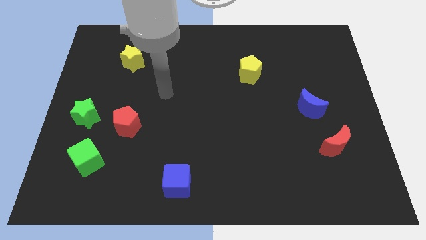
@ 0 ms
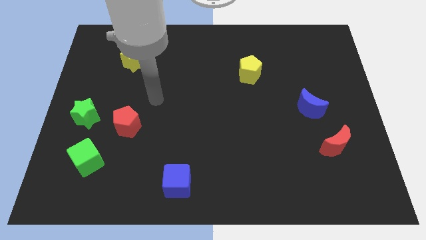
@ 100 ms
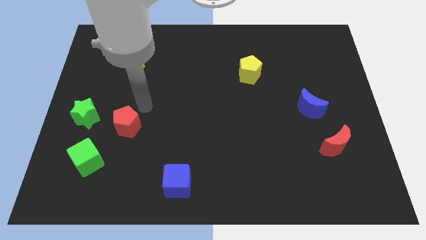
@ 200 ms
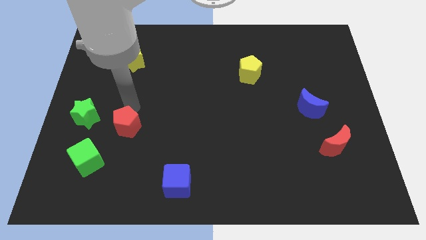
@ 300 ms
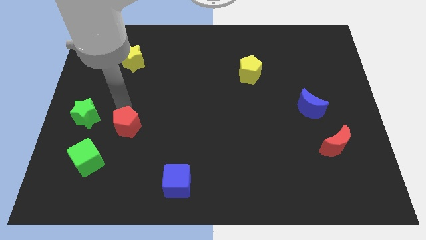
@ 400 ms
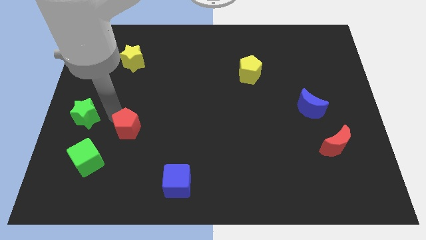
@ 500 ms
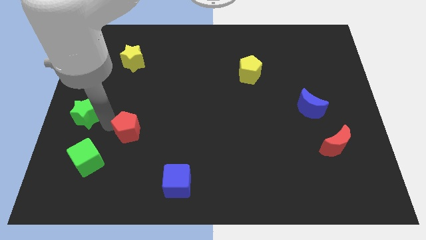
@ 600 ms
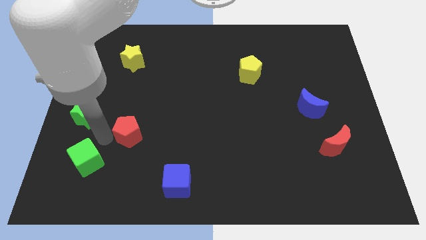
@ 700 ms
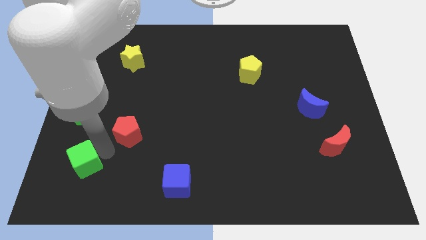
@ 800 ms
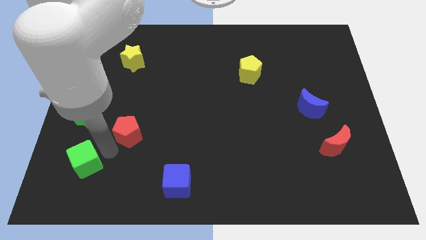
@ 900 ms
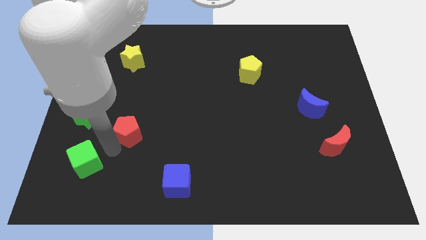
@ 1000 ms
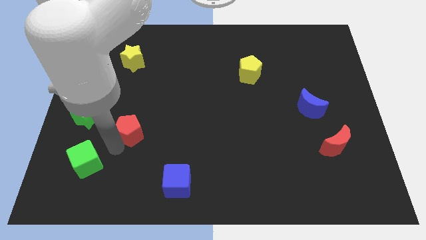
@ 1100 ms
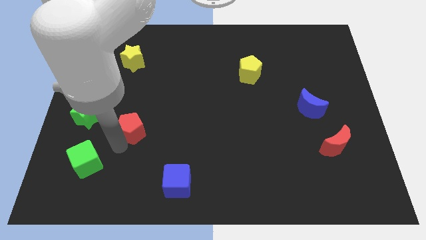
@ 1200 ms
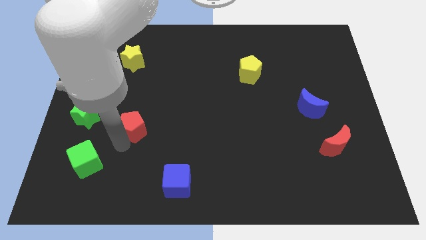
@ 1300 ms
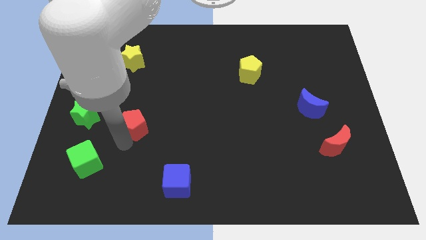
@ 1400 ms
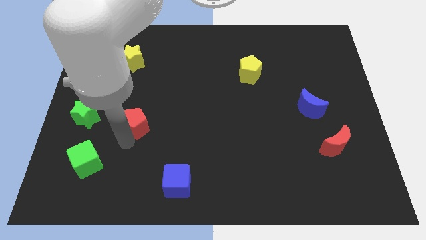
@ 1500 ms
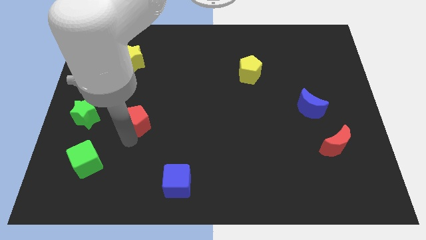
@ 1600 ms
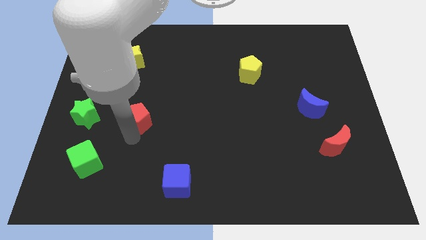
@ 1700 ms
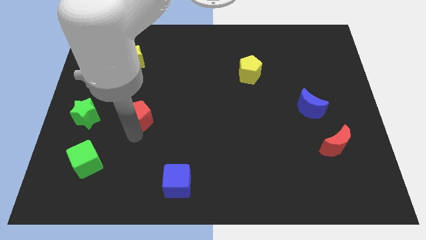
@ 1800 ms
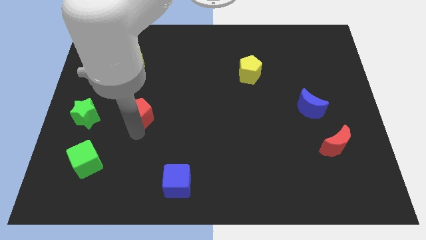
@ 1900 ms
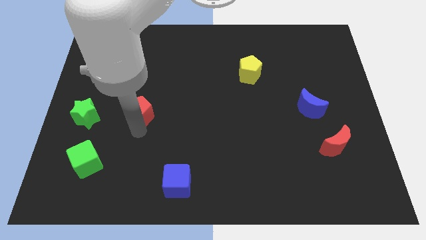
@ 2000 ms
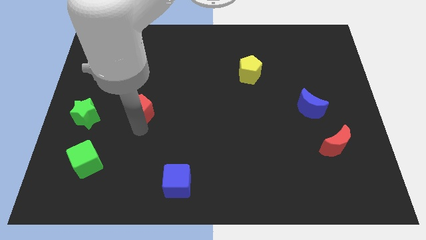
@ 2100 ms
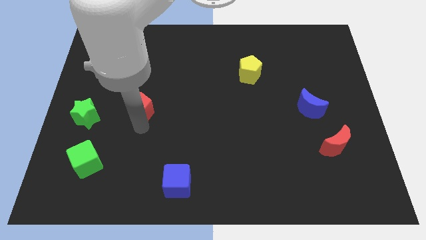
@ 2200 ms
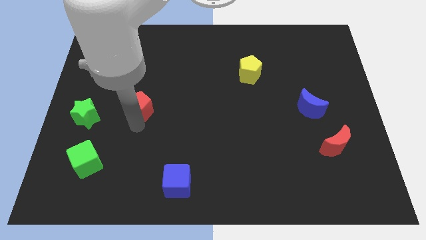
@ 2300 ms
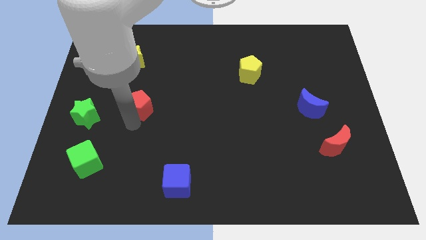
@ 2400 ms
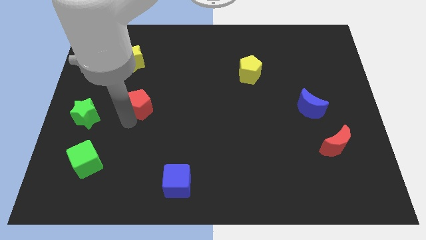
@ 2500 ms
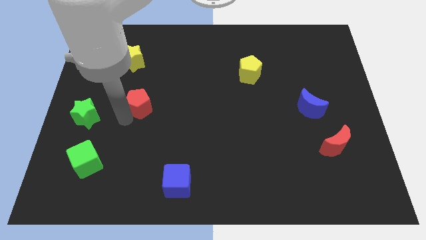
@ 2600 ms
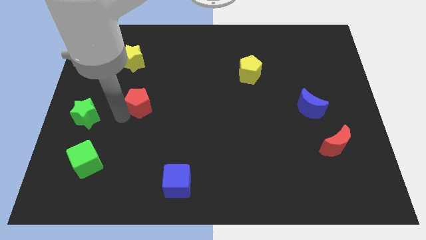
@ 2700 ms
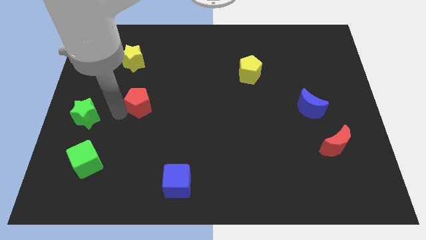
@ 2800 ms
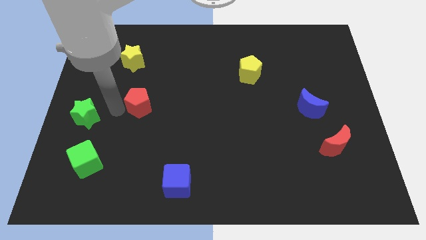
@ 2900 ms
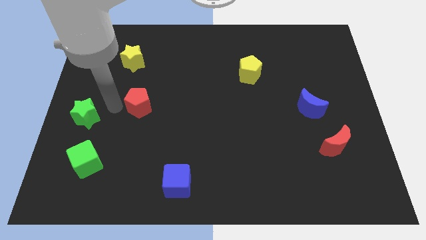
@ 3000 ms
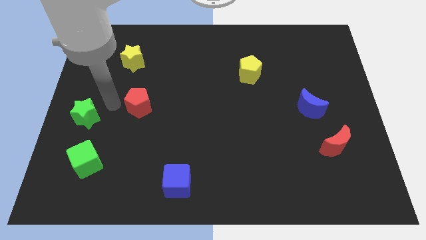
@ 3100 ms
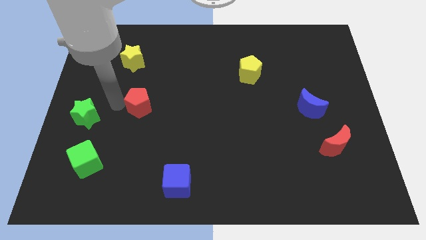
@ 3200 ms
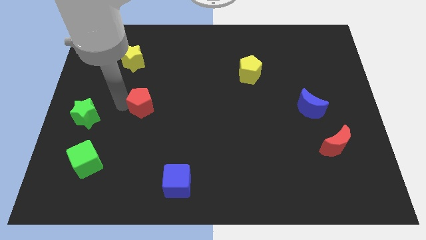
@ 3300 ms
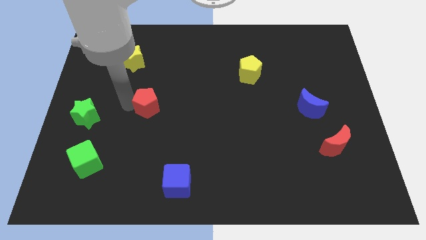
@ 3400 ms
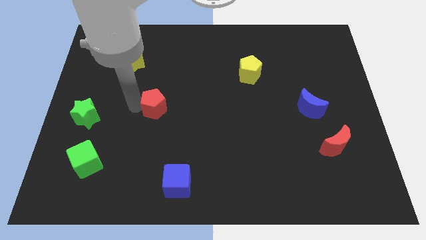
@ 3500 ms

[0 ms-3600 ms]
slightly slide the red pentagon upwards and to the right diagonally

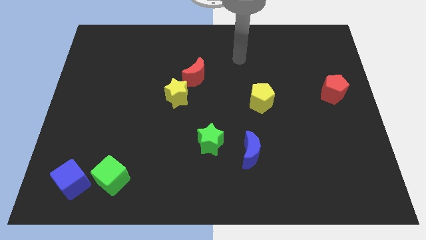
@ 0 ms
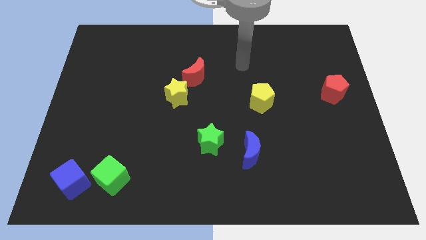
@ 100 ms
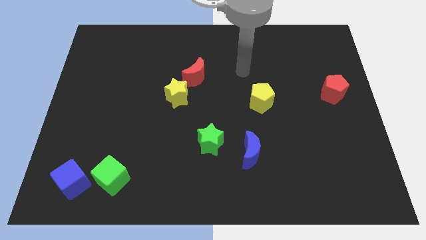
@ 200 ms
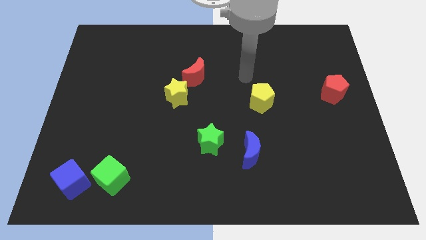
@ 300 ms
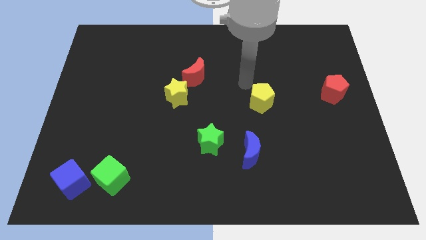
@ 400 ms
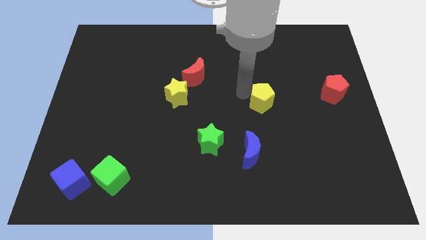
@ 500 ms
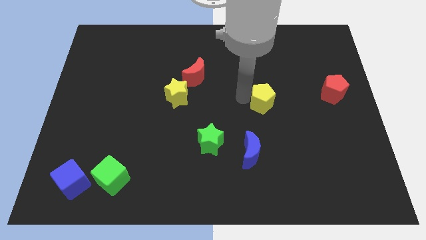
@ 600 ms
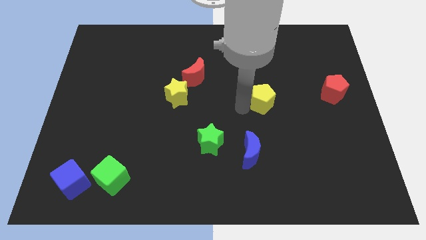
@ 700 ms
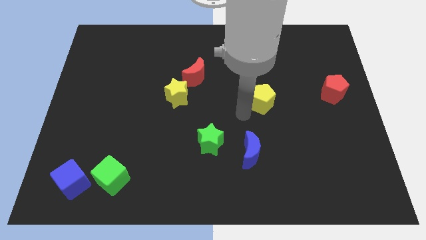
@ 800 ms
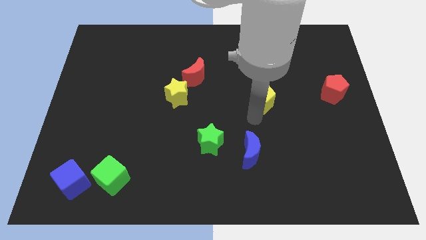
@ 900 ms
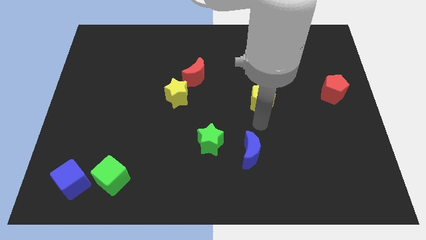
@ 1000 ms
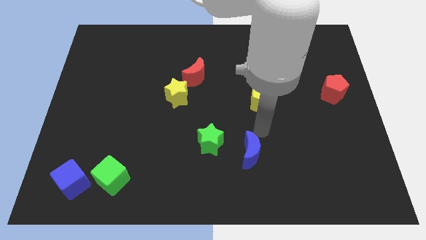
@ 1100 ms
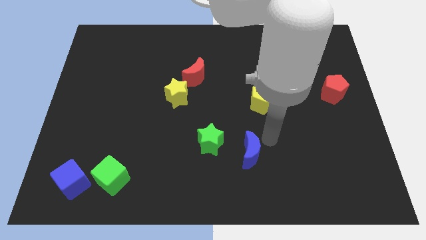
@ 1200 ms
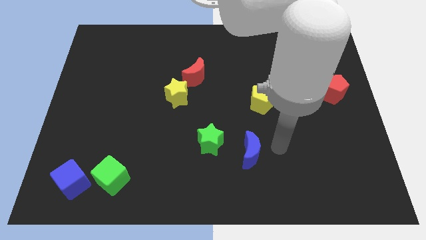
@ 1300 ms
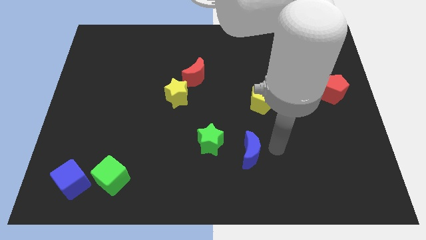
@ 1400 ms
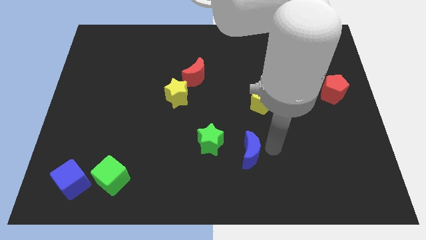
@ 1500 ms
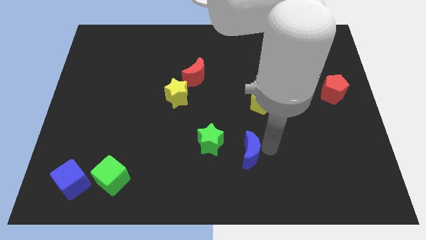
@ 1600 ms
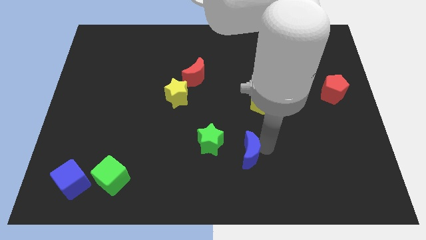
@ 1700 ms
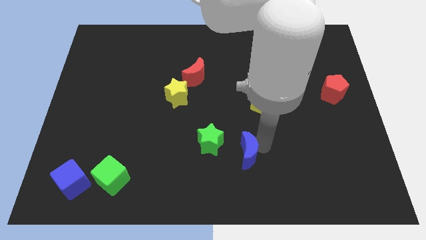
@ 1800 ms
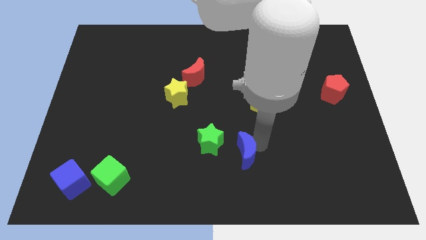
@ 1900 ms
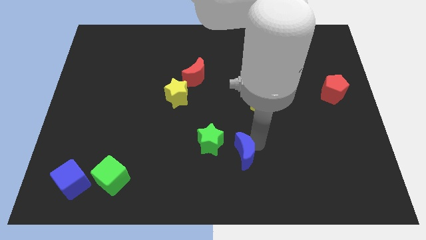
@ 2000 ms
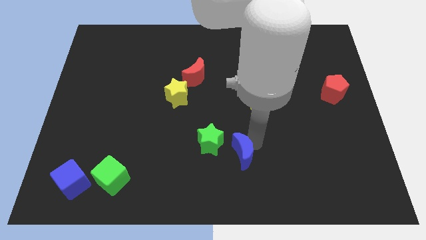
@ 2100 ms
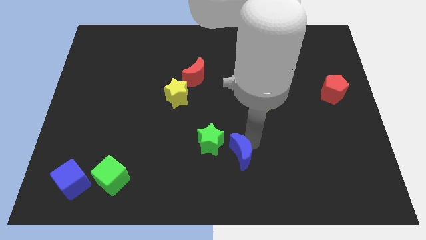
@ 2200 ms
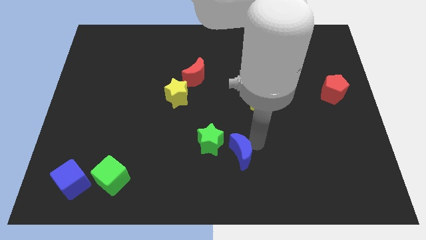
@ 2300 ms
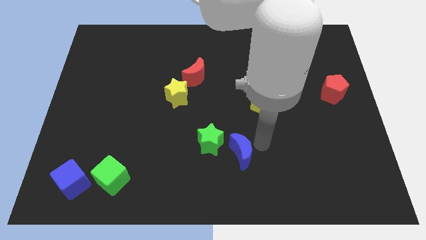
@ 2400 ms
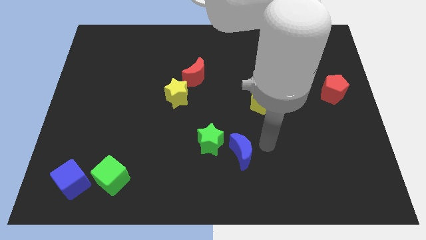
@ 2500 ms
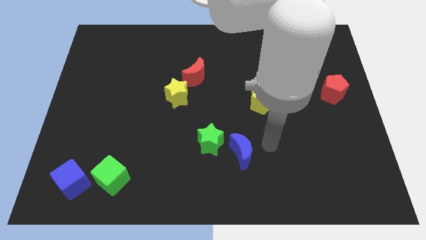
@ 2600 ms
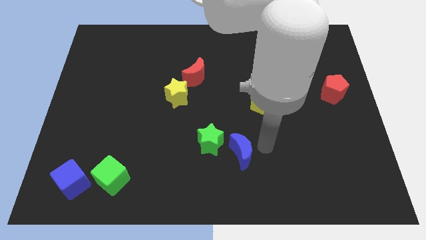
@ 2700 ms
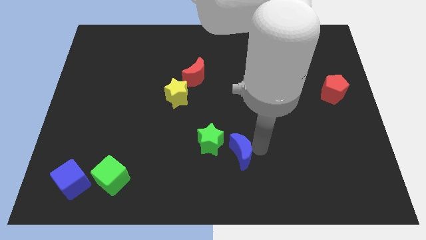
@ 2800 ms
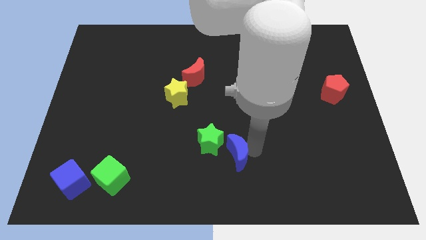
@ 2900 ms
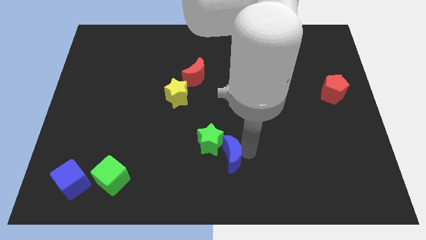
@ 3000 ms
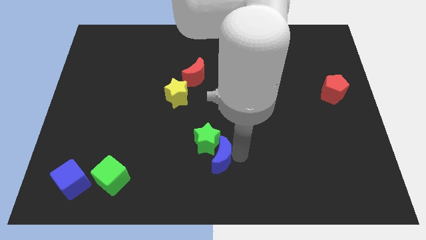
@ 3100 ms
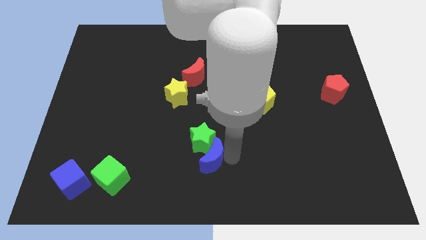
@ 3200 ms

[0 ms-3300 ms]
move the blue moon somewhat to the left

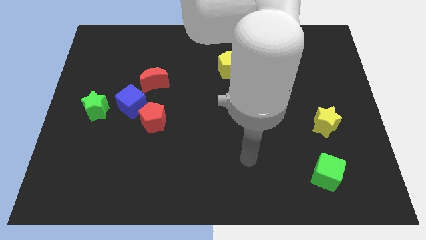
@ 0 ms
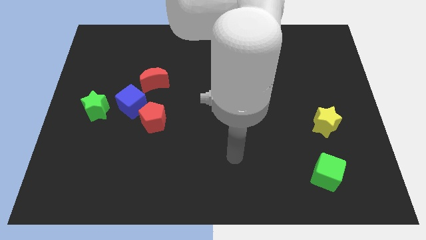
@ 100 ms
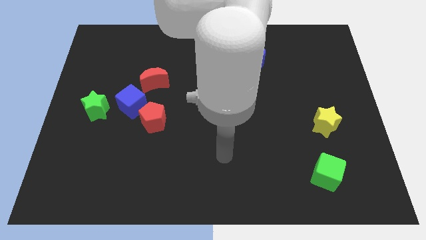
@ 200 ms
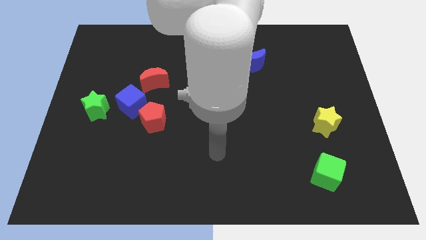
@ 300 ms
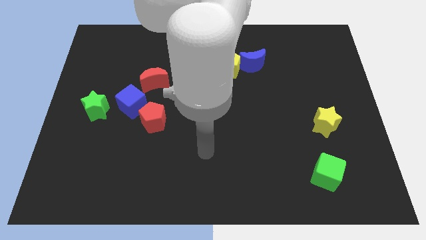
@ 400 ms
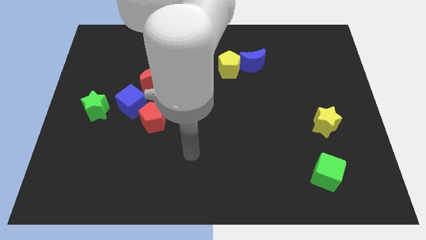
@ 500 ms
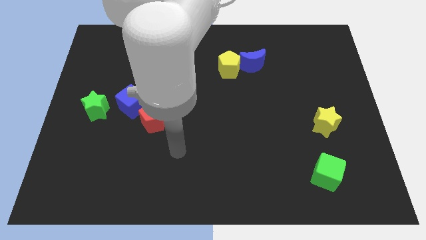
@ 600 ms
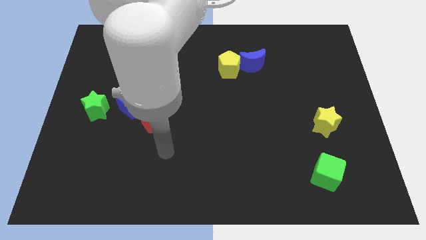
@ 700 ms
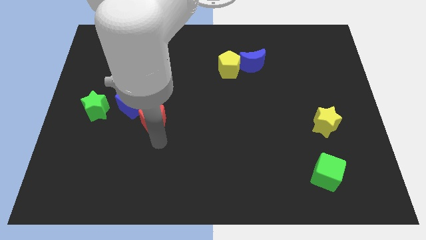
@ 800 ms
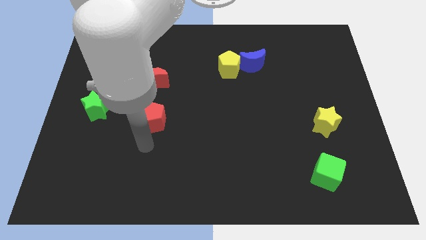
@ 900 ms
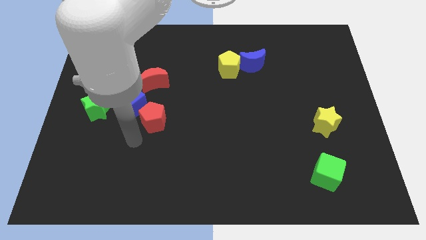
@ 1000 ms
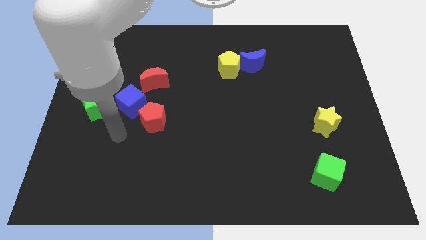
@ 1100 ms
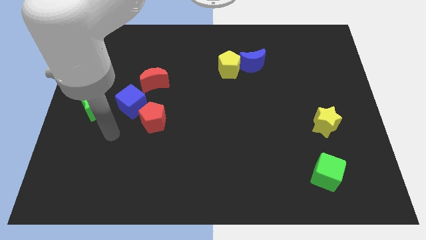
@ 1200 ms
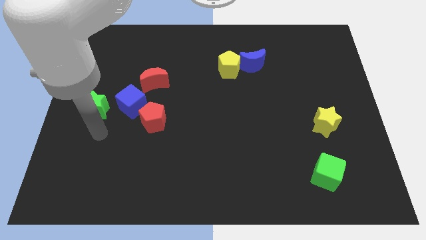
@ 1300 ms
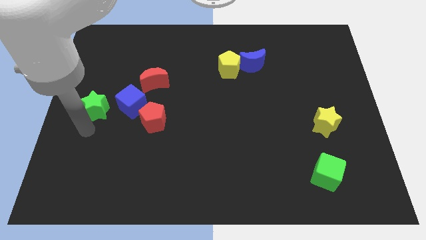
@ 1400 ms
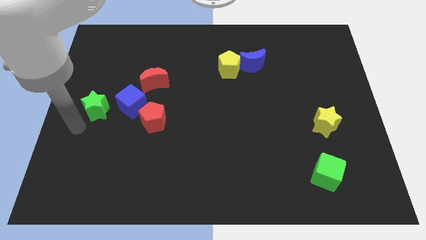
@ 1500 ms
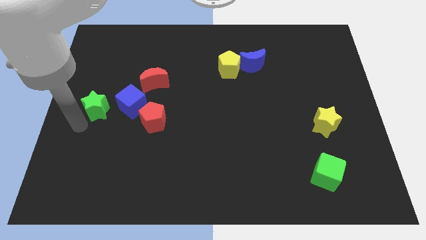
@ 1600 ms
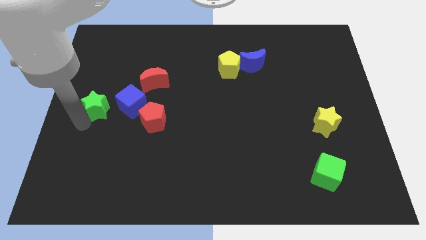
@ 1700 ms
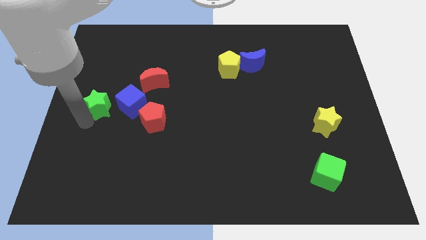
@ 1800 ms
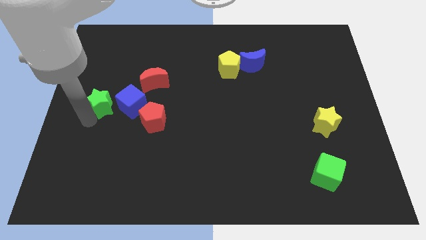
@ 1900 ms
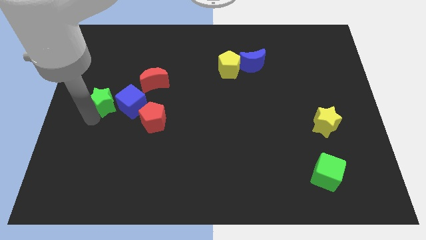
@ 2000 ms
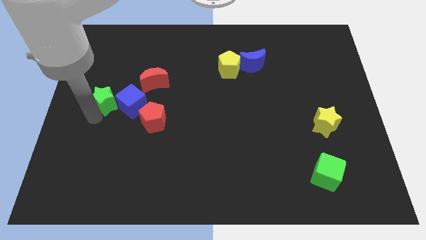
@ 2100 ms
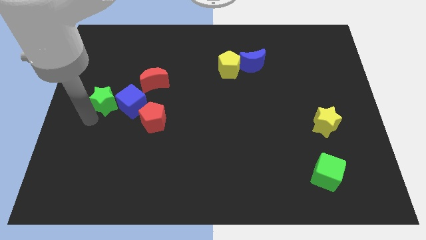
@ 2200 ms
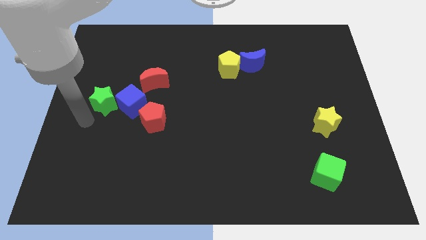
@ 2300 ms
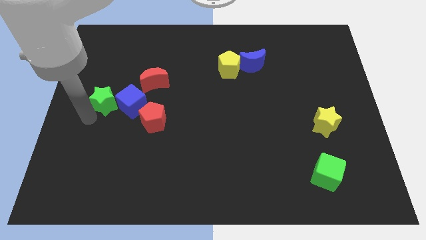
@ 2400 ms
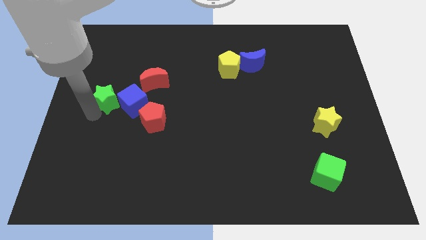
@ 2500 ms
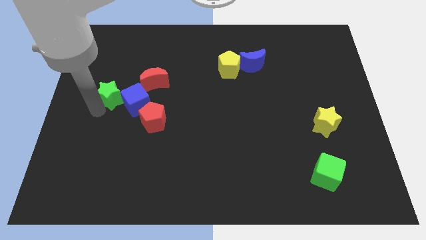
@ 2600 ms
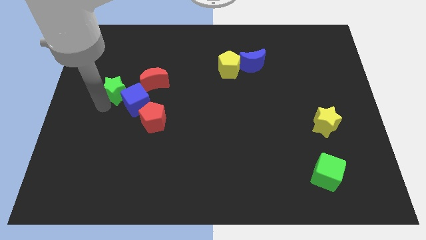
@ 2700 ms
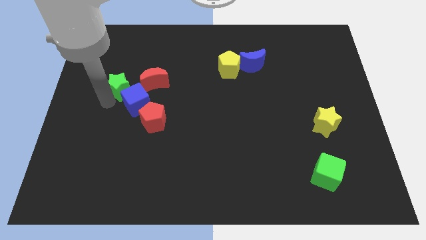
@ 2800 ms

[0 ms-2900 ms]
slightly push the green star upwards and then right
